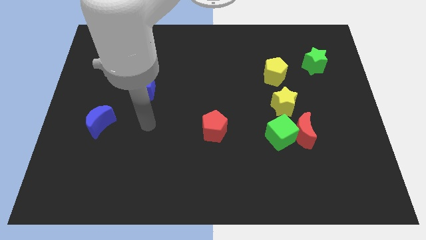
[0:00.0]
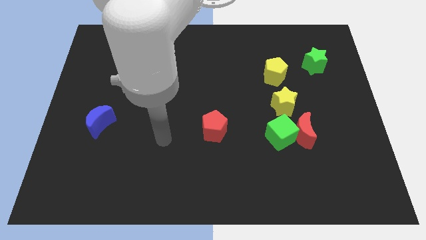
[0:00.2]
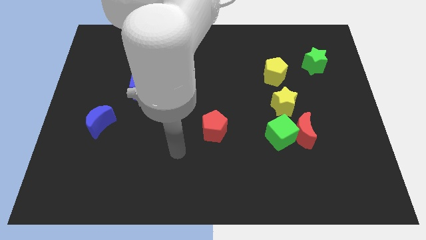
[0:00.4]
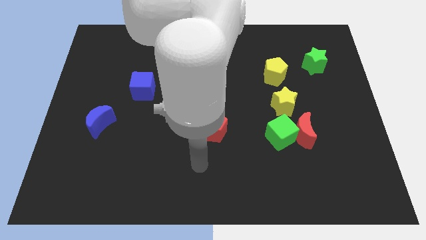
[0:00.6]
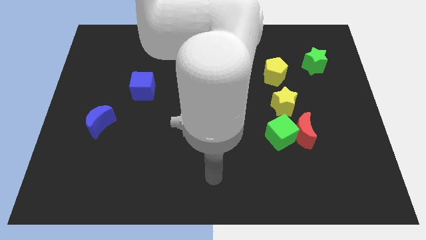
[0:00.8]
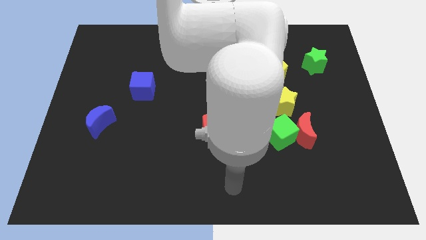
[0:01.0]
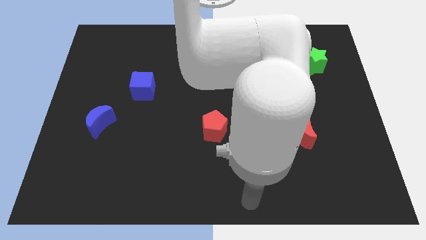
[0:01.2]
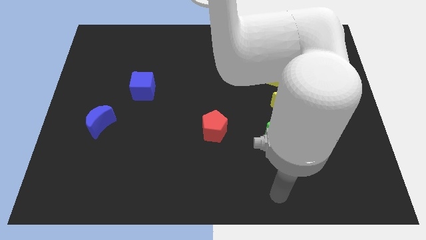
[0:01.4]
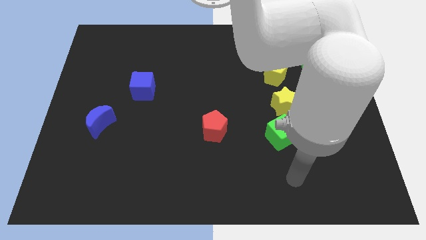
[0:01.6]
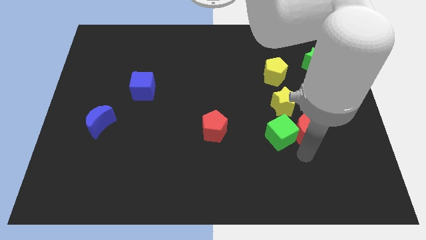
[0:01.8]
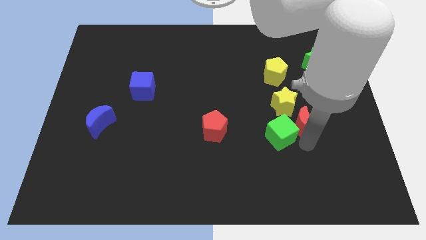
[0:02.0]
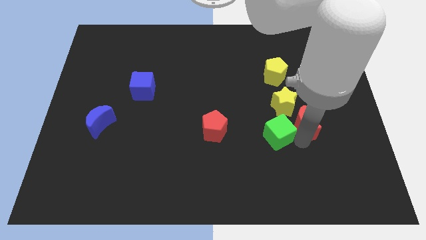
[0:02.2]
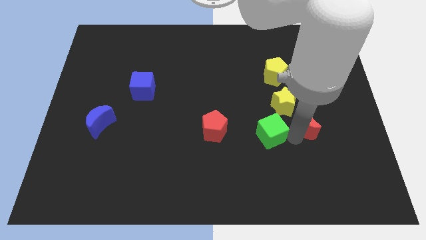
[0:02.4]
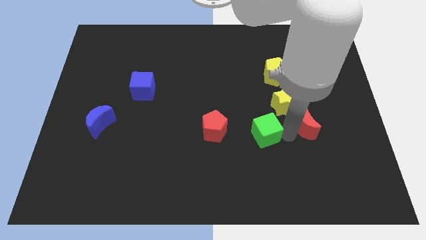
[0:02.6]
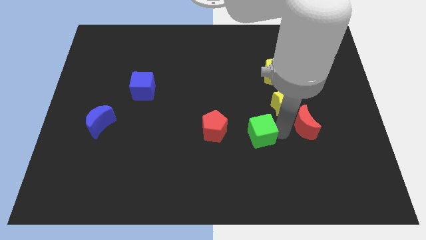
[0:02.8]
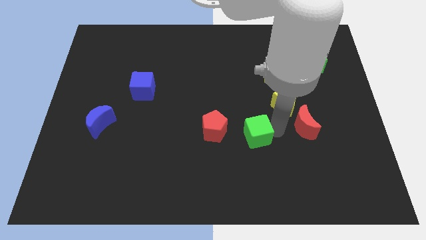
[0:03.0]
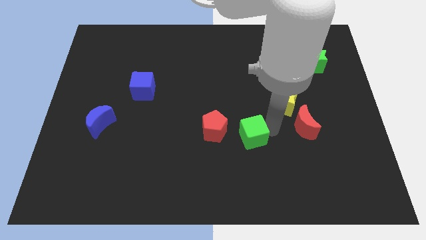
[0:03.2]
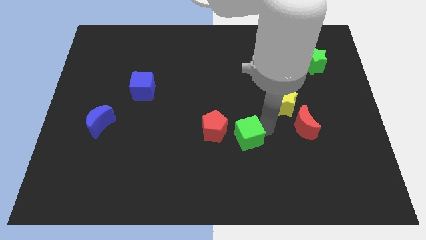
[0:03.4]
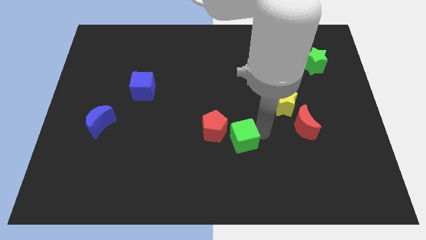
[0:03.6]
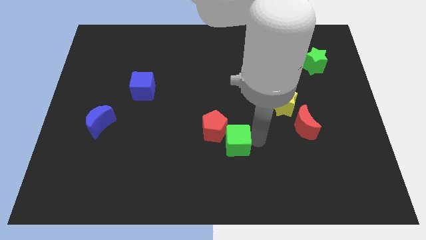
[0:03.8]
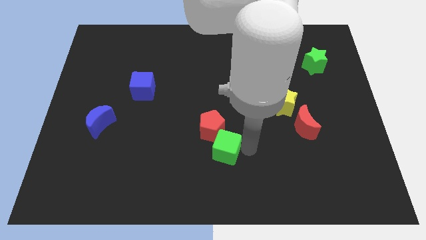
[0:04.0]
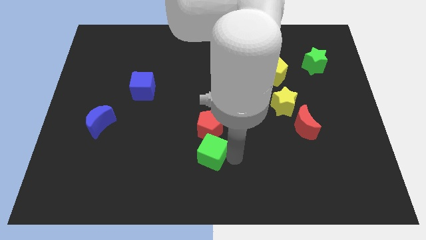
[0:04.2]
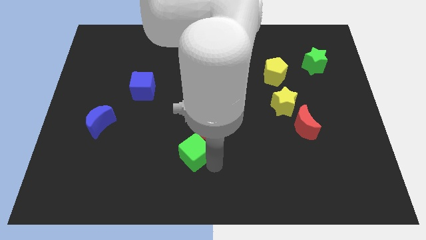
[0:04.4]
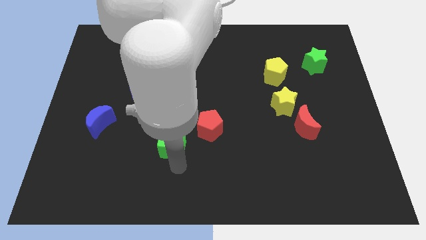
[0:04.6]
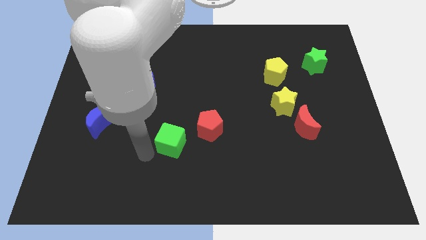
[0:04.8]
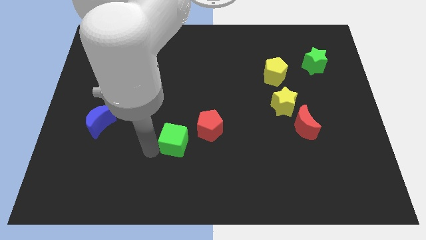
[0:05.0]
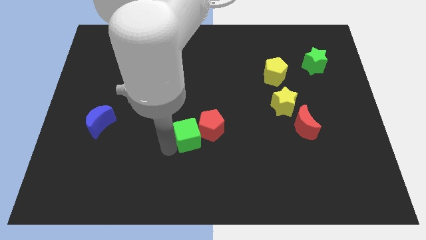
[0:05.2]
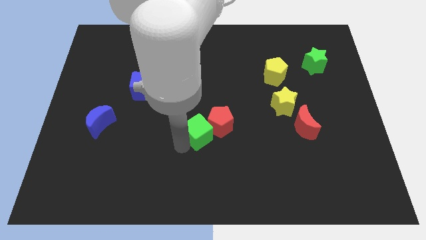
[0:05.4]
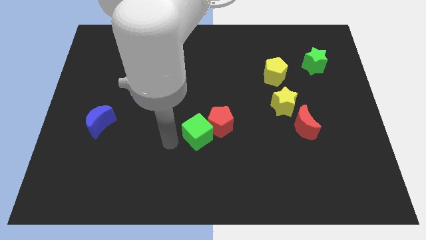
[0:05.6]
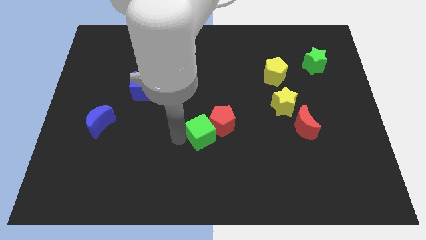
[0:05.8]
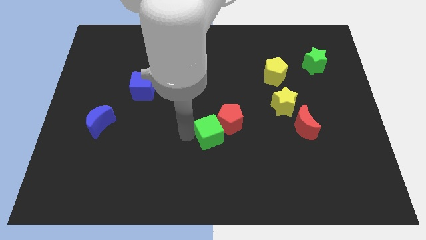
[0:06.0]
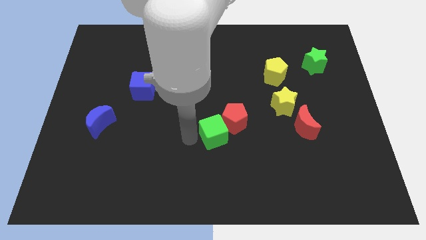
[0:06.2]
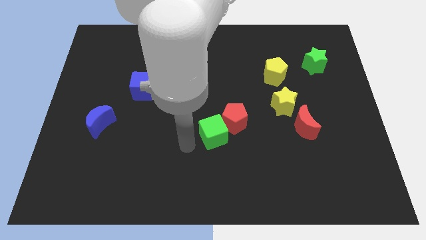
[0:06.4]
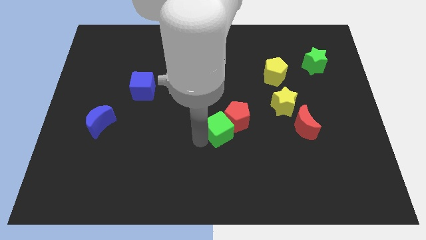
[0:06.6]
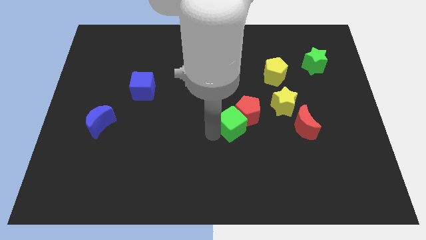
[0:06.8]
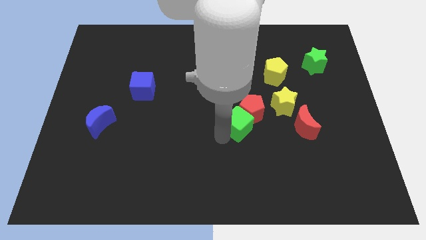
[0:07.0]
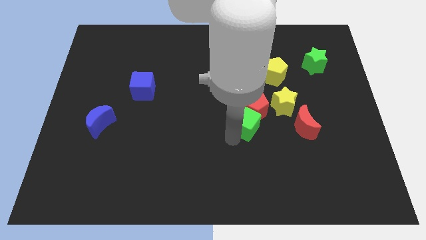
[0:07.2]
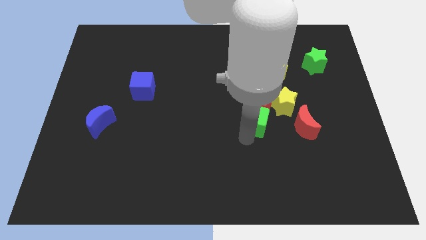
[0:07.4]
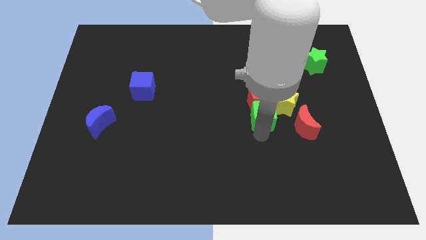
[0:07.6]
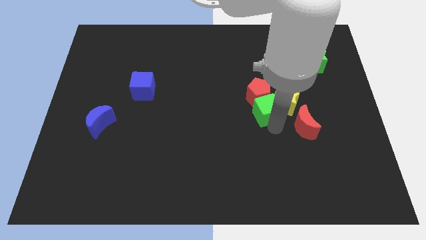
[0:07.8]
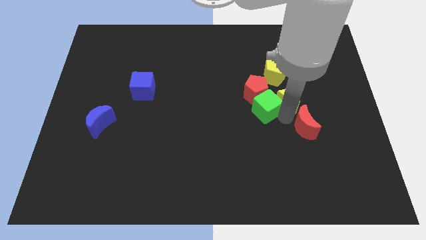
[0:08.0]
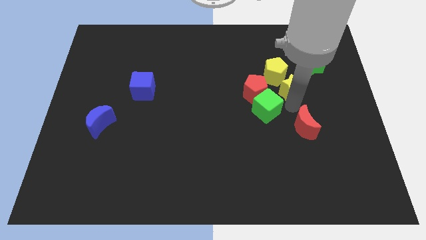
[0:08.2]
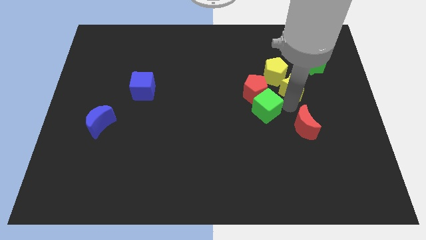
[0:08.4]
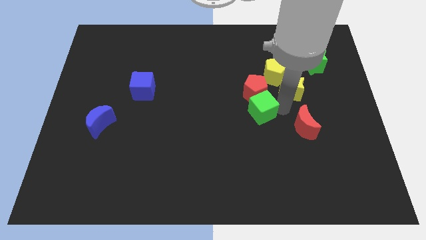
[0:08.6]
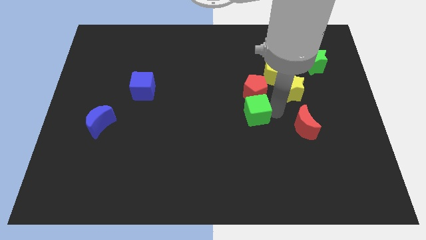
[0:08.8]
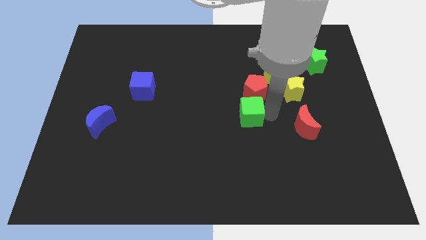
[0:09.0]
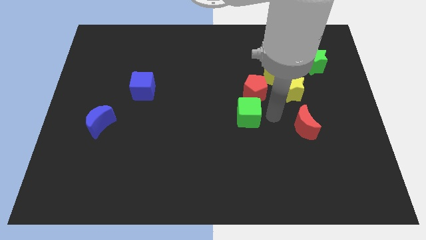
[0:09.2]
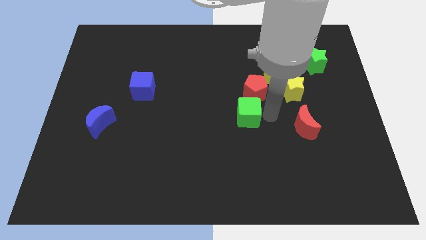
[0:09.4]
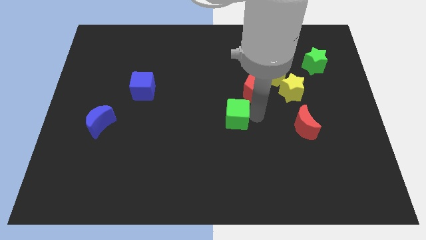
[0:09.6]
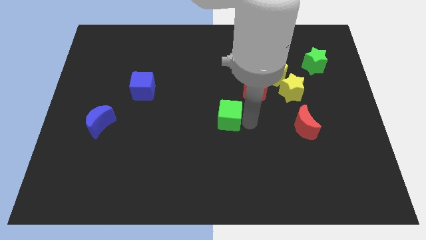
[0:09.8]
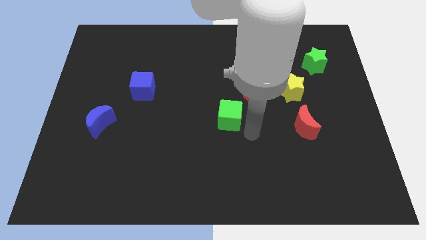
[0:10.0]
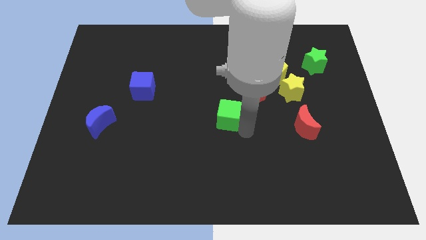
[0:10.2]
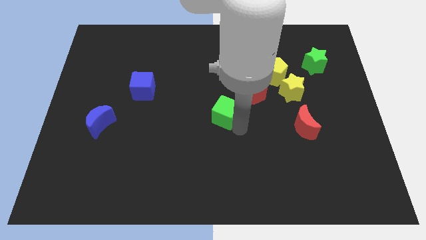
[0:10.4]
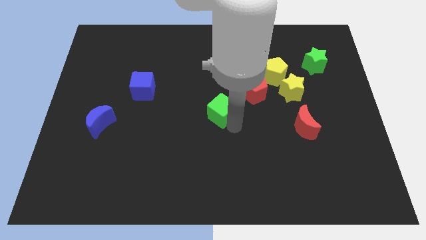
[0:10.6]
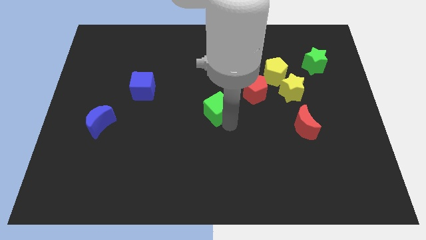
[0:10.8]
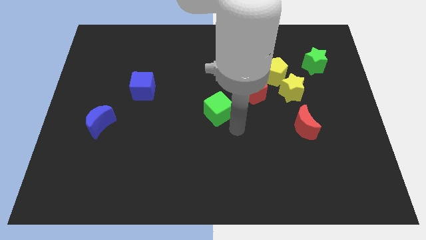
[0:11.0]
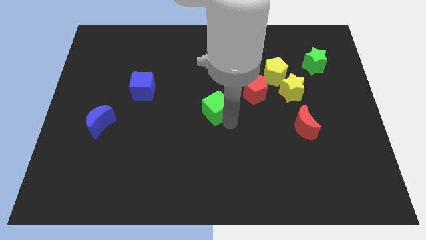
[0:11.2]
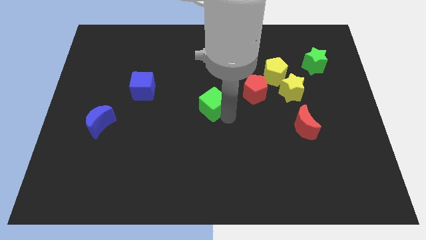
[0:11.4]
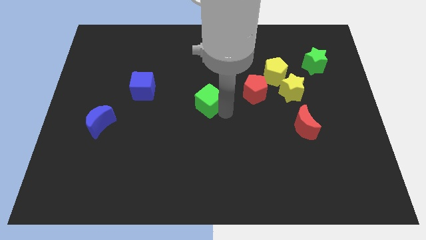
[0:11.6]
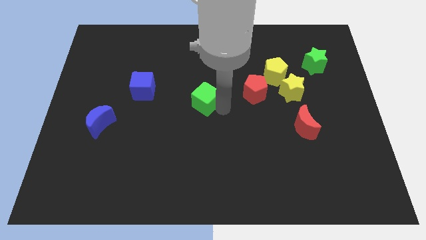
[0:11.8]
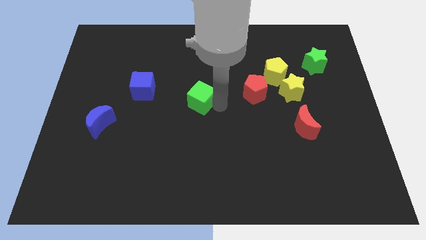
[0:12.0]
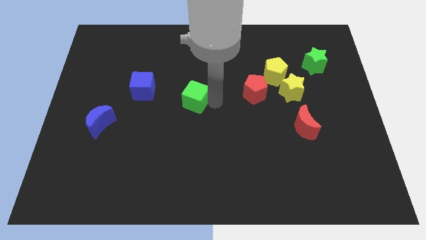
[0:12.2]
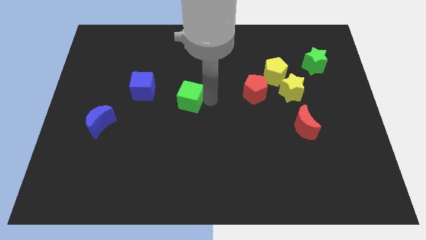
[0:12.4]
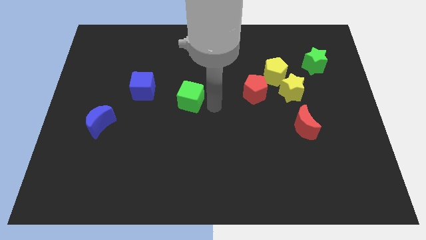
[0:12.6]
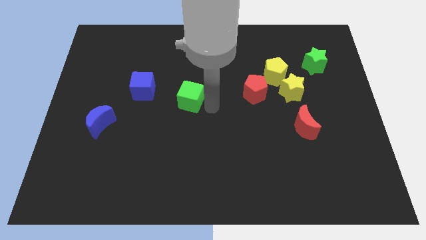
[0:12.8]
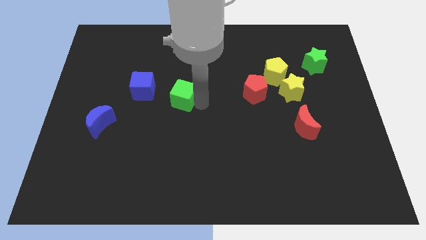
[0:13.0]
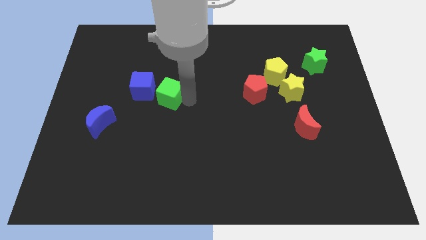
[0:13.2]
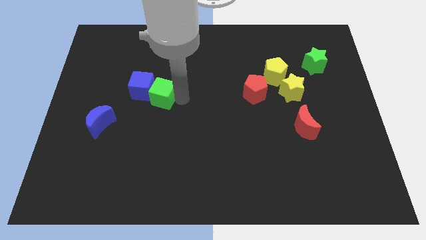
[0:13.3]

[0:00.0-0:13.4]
put the green cube next to the blue cube
